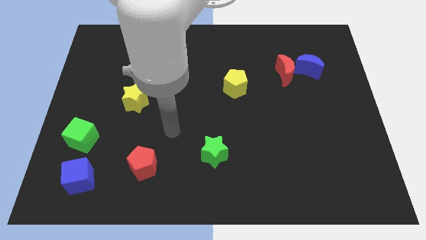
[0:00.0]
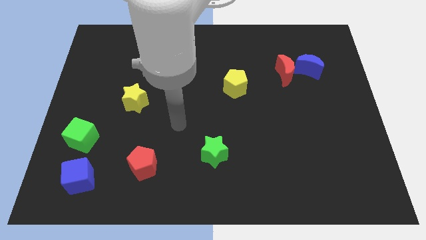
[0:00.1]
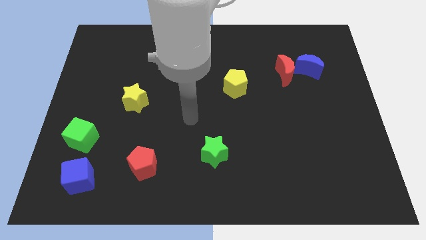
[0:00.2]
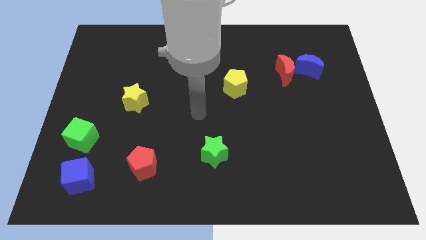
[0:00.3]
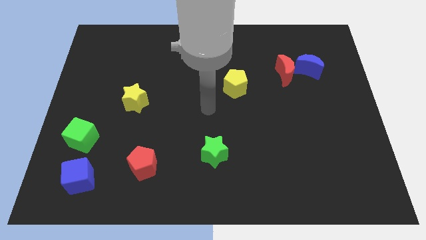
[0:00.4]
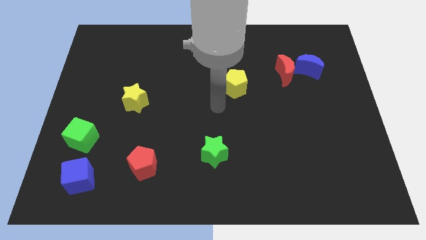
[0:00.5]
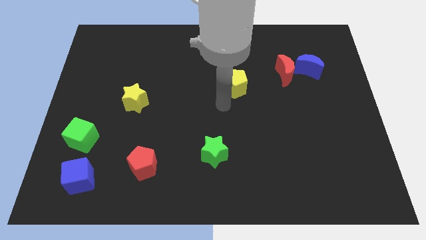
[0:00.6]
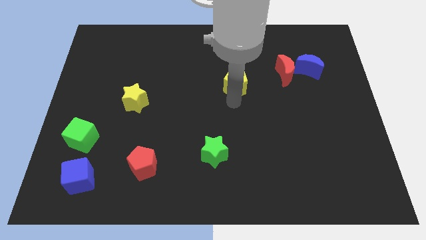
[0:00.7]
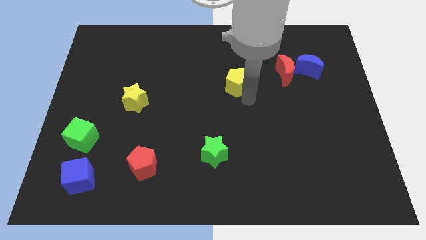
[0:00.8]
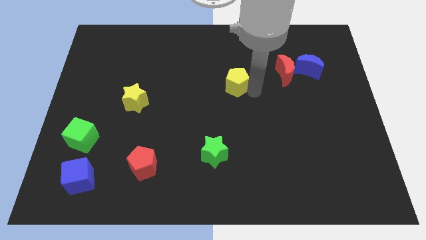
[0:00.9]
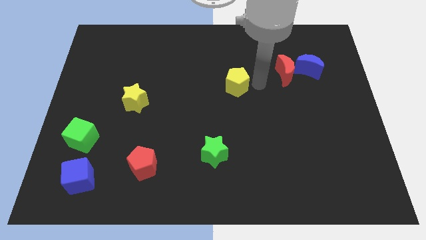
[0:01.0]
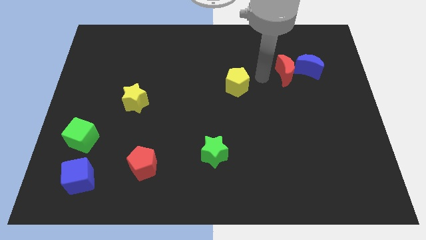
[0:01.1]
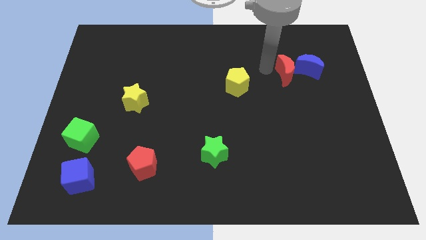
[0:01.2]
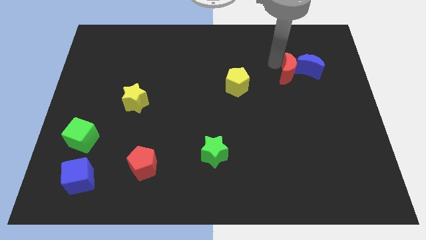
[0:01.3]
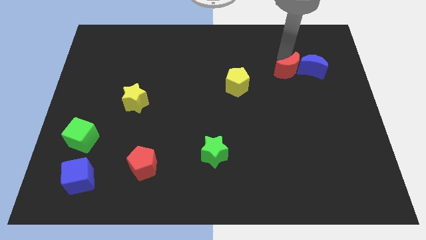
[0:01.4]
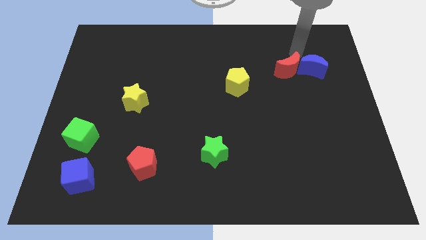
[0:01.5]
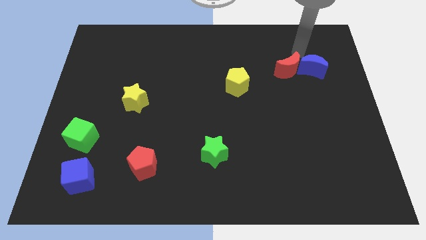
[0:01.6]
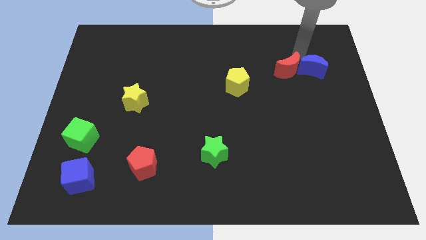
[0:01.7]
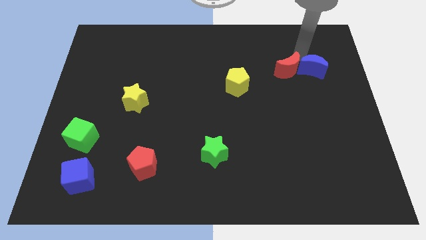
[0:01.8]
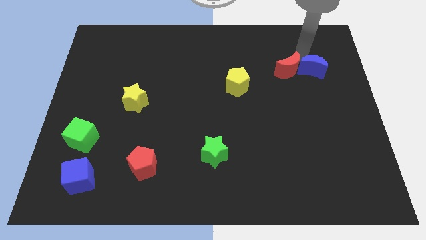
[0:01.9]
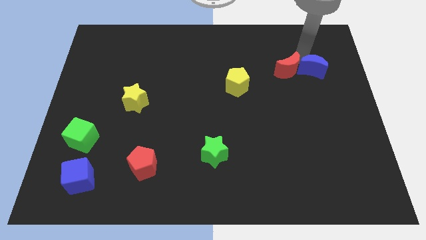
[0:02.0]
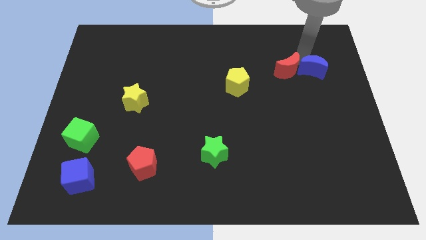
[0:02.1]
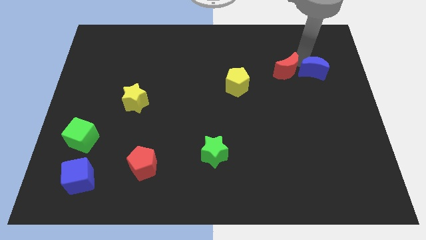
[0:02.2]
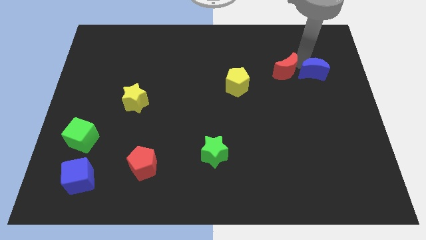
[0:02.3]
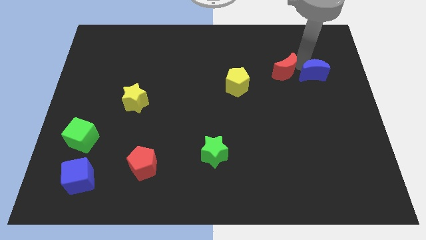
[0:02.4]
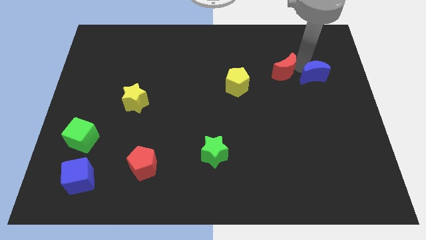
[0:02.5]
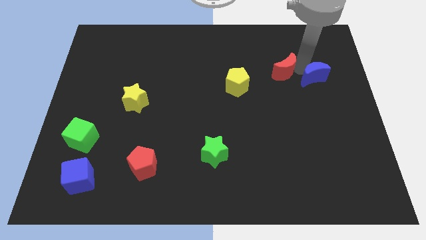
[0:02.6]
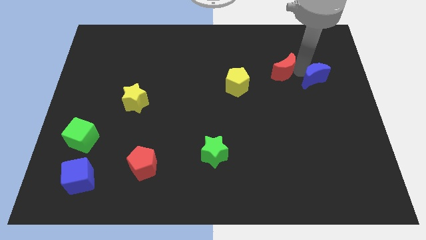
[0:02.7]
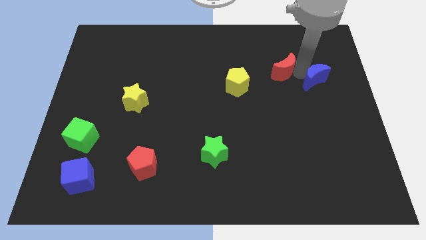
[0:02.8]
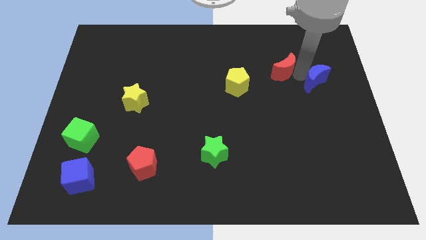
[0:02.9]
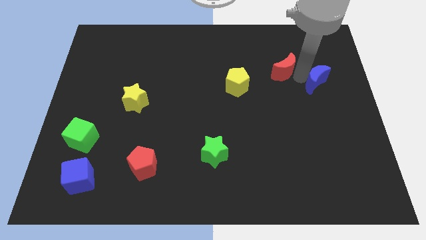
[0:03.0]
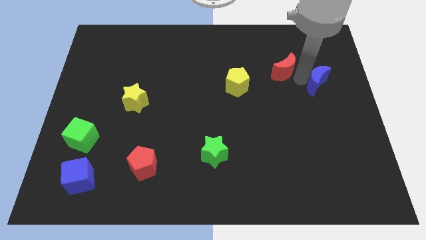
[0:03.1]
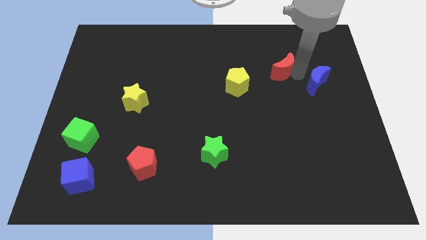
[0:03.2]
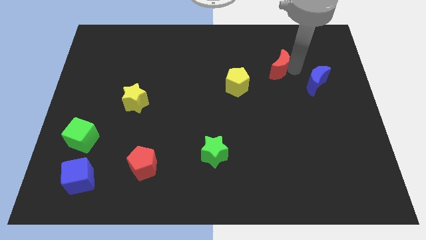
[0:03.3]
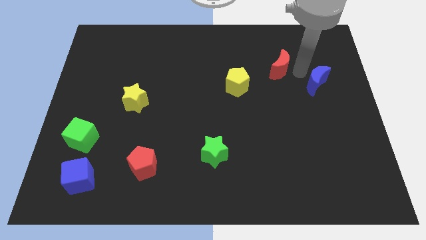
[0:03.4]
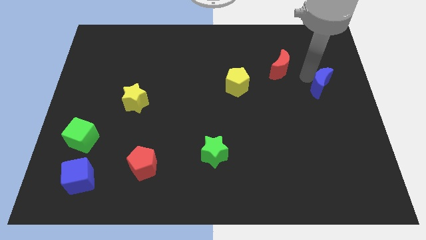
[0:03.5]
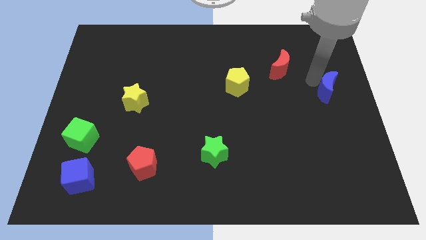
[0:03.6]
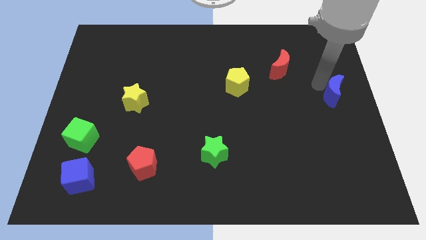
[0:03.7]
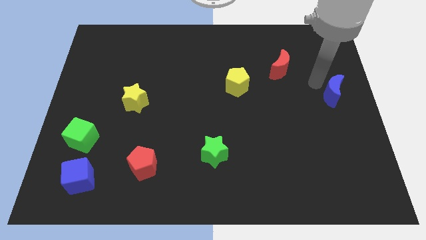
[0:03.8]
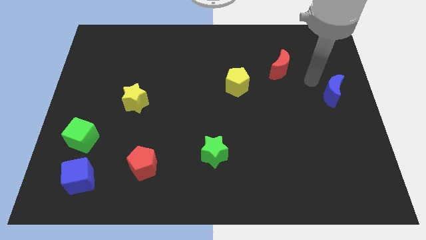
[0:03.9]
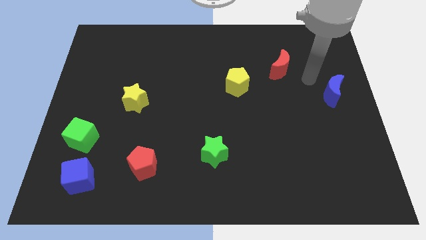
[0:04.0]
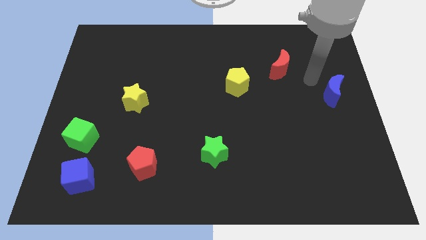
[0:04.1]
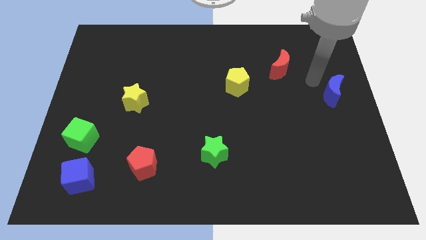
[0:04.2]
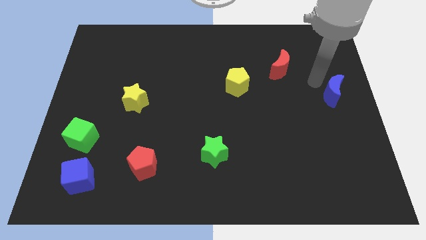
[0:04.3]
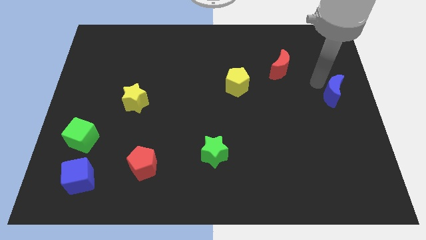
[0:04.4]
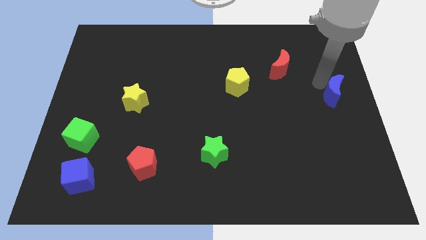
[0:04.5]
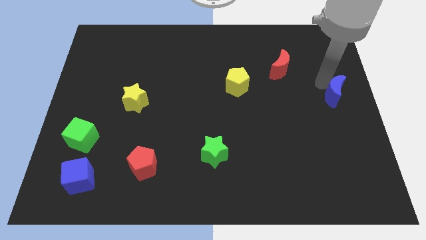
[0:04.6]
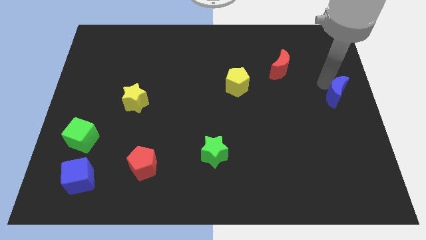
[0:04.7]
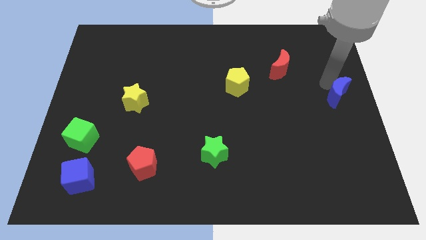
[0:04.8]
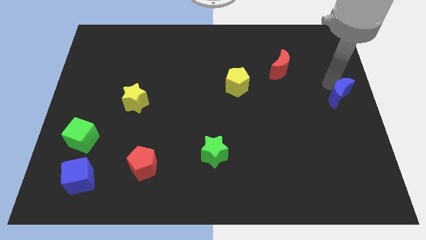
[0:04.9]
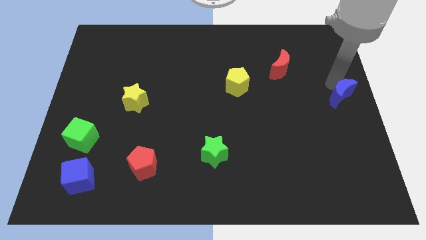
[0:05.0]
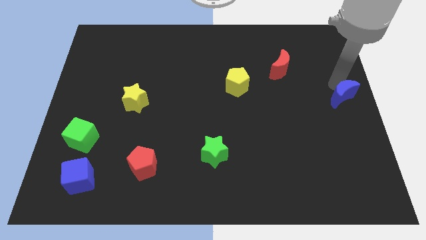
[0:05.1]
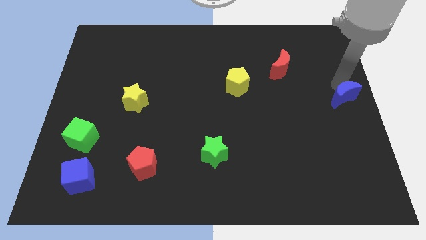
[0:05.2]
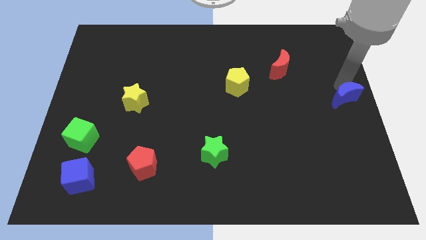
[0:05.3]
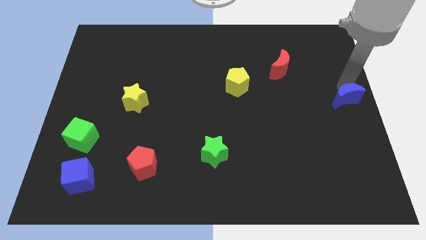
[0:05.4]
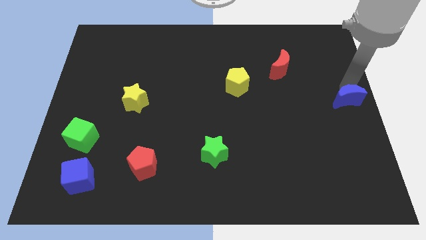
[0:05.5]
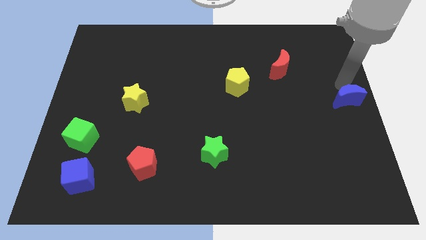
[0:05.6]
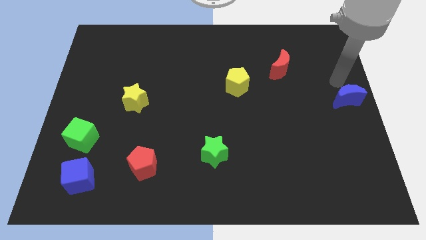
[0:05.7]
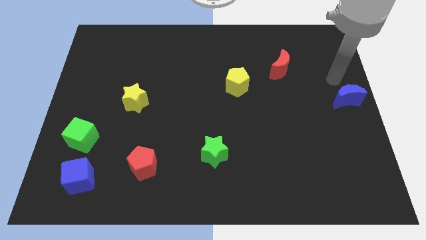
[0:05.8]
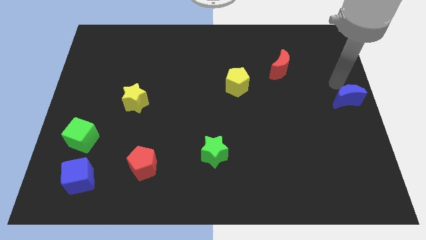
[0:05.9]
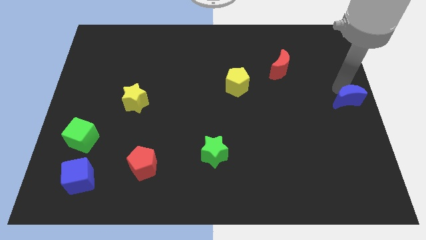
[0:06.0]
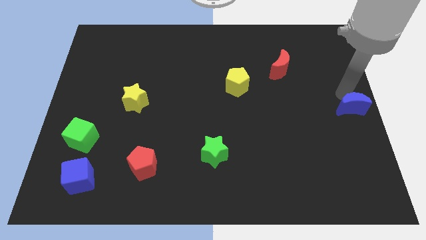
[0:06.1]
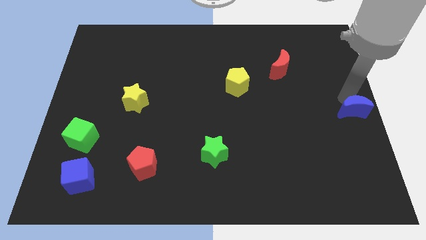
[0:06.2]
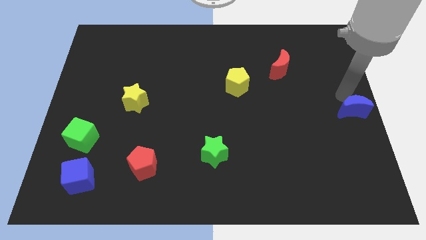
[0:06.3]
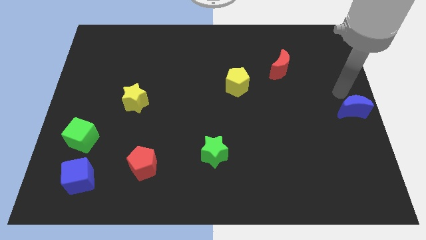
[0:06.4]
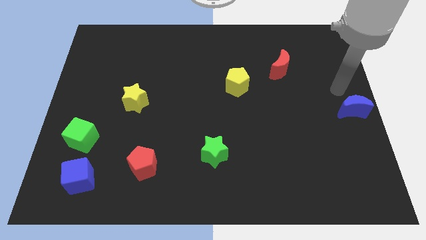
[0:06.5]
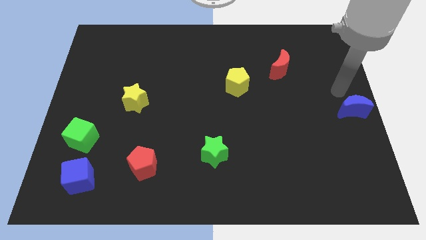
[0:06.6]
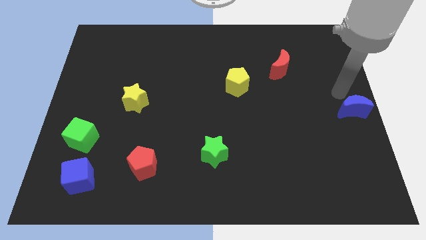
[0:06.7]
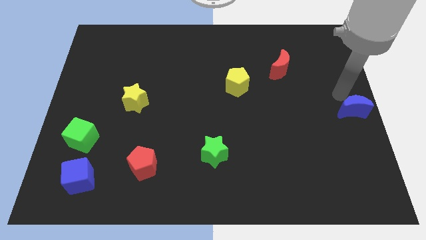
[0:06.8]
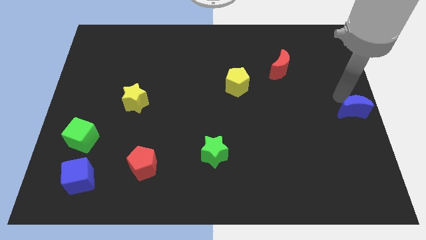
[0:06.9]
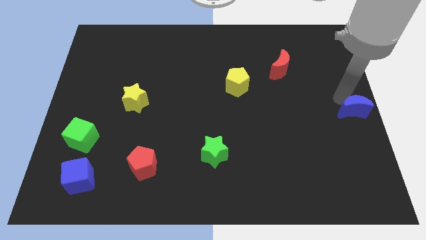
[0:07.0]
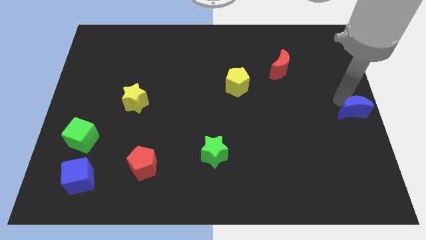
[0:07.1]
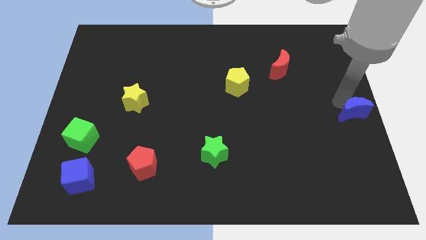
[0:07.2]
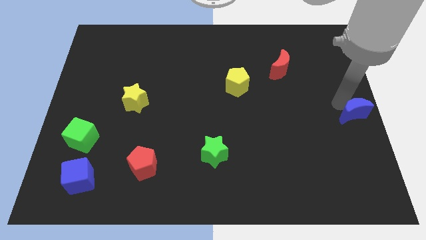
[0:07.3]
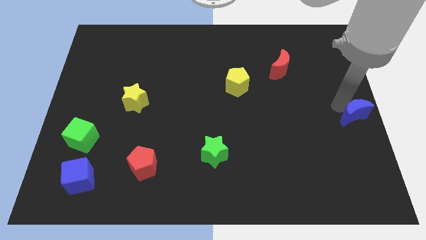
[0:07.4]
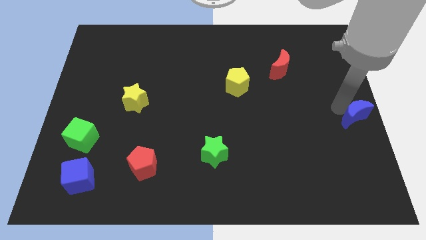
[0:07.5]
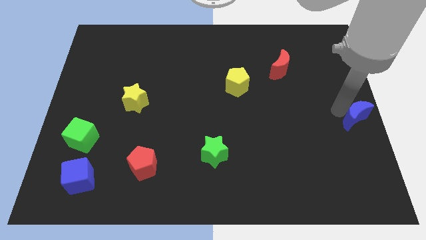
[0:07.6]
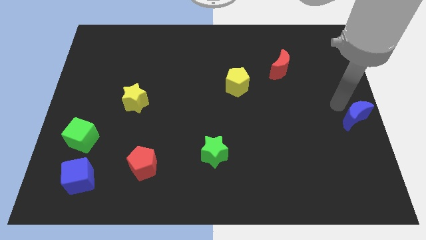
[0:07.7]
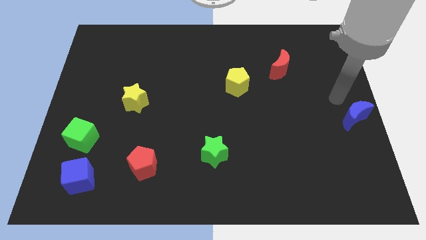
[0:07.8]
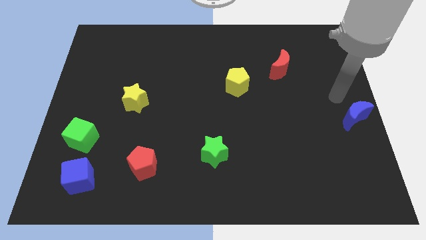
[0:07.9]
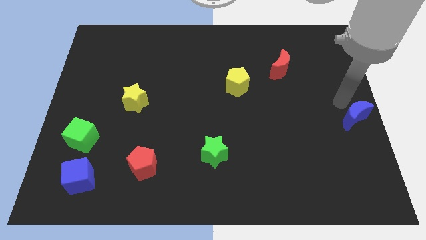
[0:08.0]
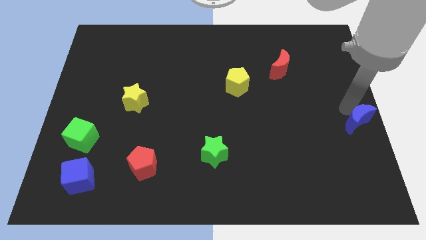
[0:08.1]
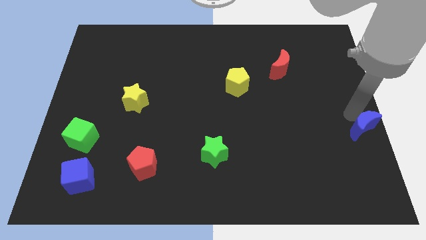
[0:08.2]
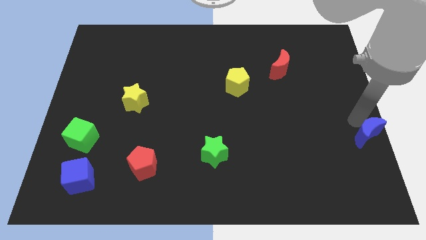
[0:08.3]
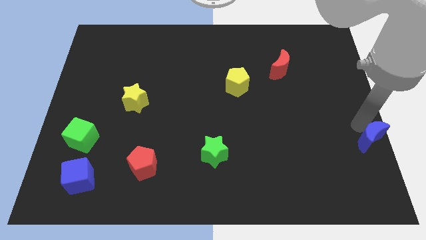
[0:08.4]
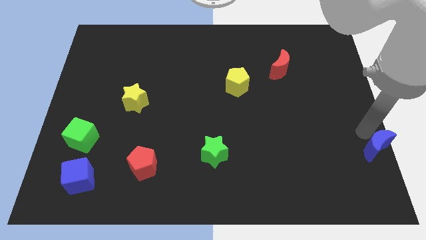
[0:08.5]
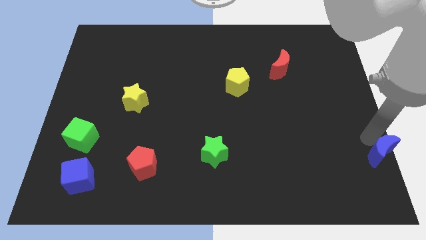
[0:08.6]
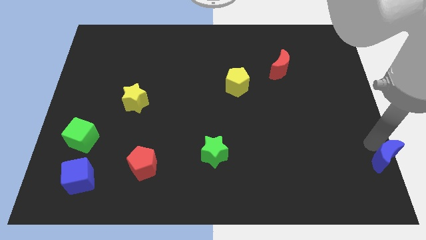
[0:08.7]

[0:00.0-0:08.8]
slide the blue moon to the lower right corner
